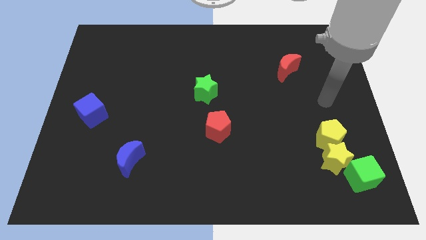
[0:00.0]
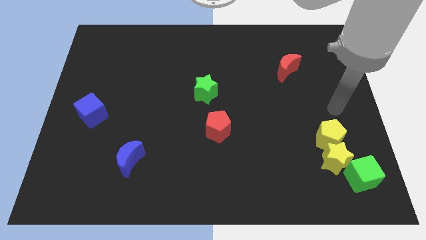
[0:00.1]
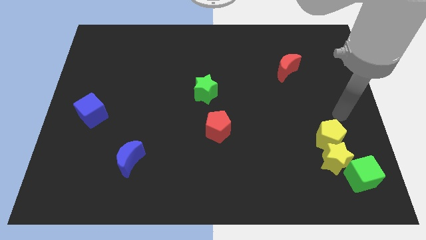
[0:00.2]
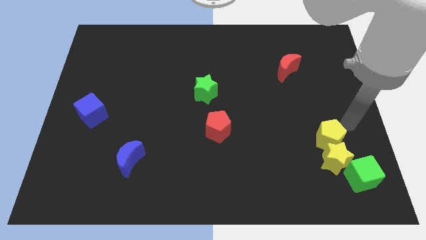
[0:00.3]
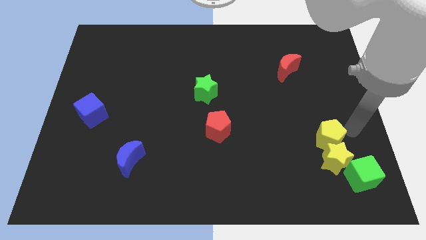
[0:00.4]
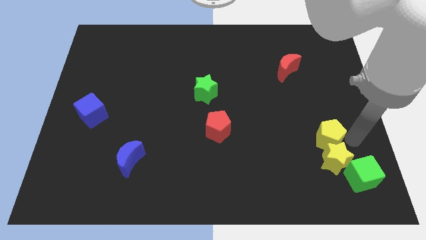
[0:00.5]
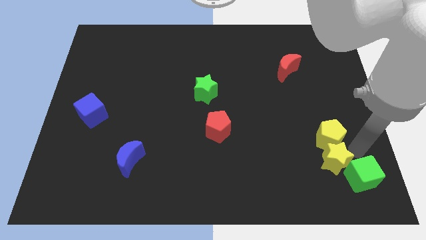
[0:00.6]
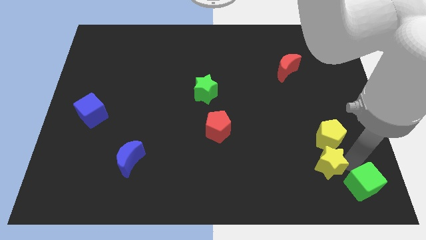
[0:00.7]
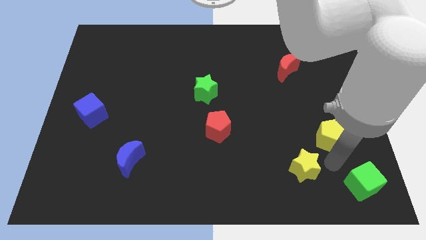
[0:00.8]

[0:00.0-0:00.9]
separate the yellow pentagon from the yellow star

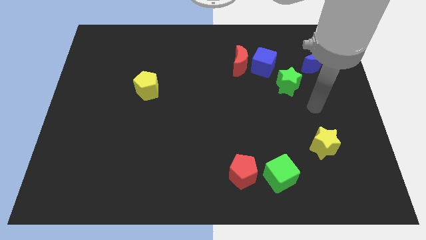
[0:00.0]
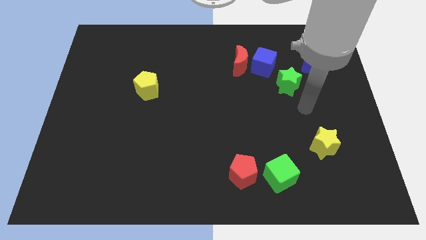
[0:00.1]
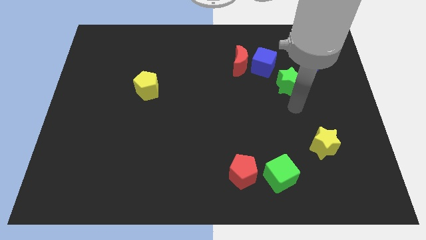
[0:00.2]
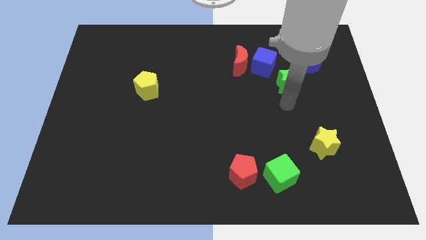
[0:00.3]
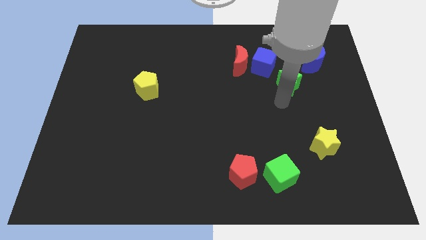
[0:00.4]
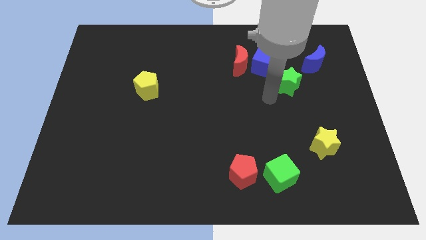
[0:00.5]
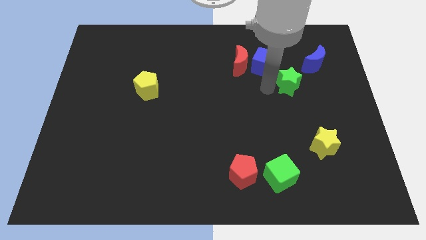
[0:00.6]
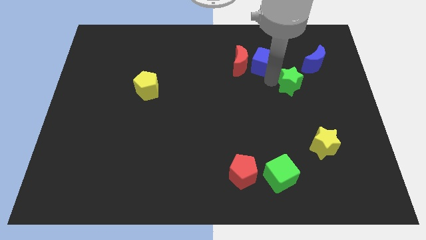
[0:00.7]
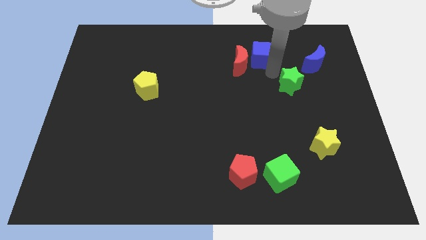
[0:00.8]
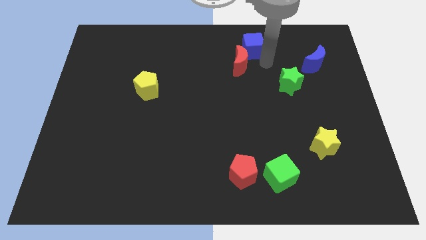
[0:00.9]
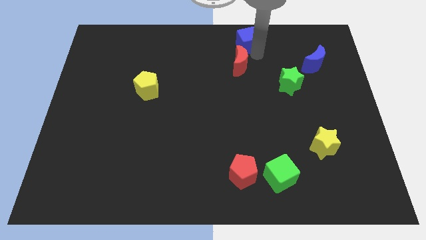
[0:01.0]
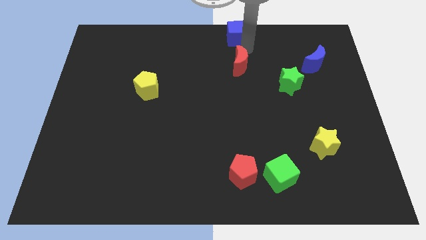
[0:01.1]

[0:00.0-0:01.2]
move the red moon away from the blue cube

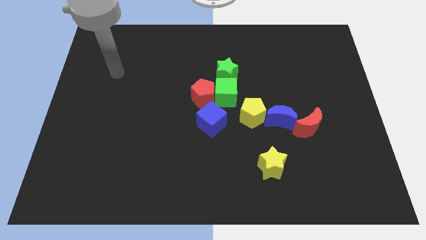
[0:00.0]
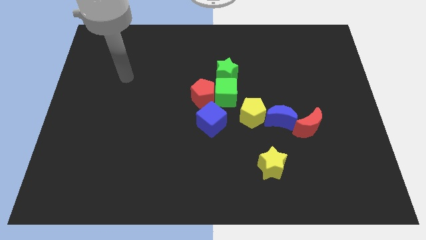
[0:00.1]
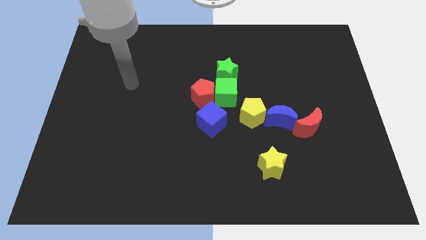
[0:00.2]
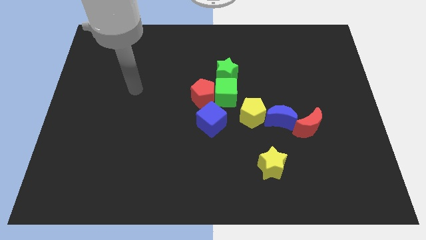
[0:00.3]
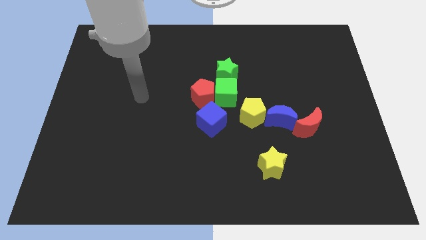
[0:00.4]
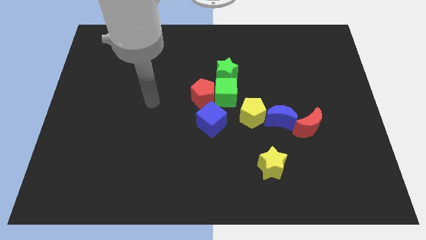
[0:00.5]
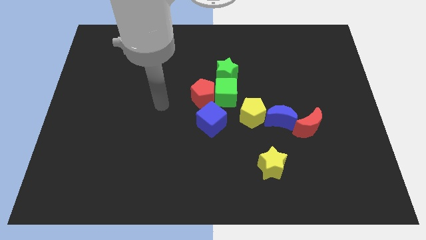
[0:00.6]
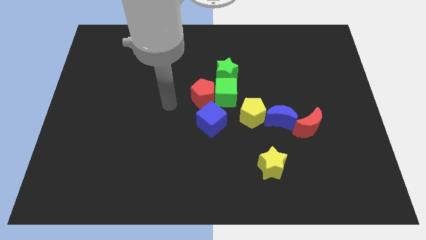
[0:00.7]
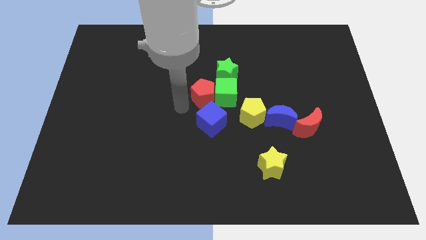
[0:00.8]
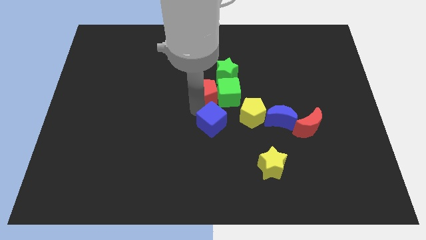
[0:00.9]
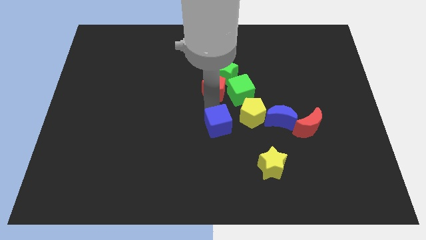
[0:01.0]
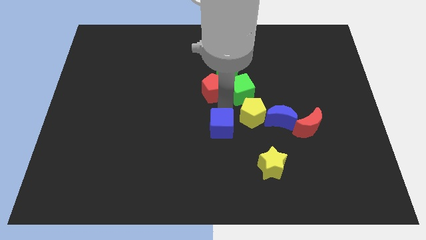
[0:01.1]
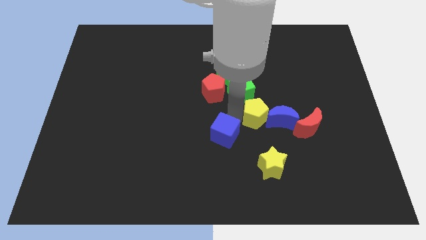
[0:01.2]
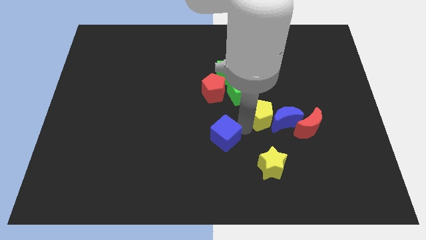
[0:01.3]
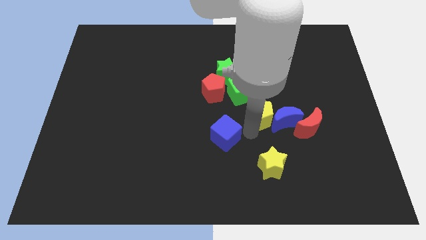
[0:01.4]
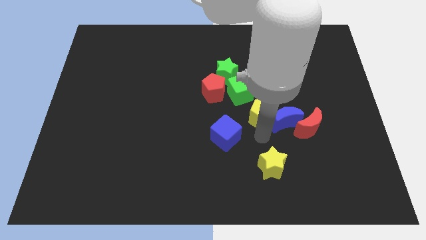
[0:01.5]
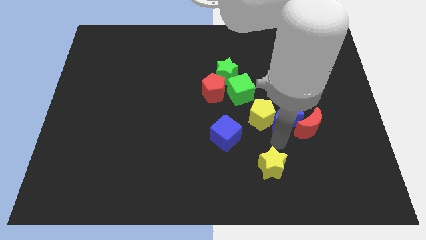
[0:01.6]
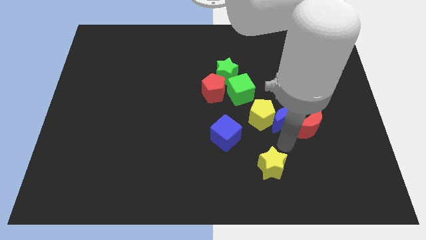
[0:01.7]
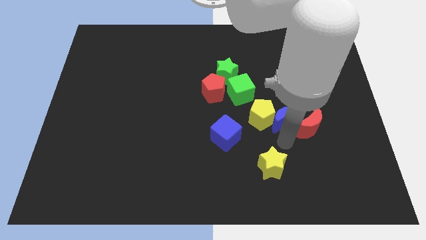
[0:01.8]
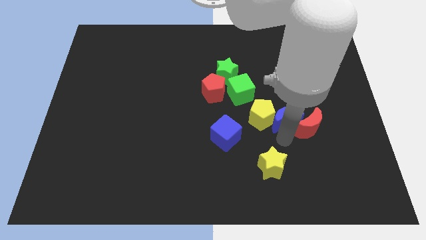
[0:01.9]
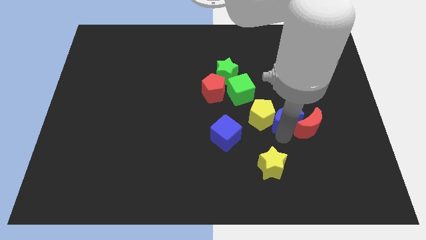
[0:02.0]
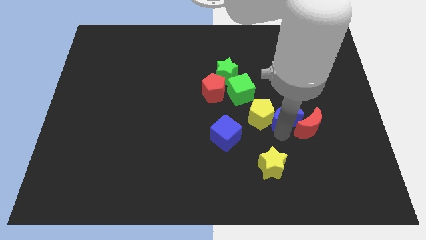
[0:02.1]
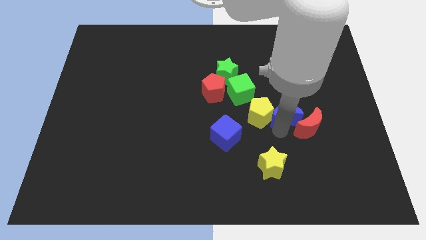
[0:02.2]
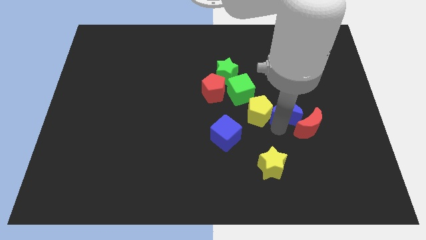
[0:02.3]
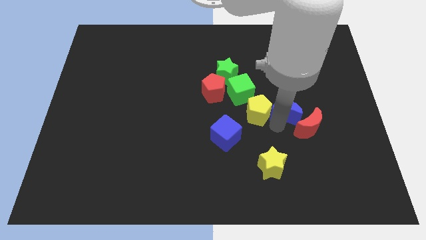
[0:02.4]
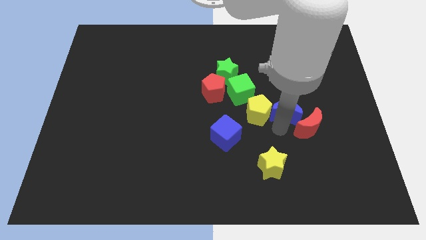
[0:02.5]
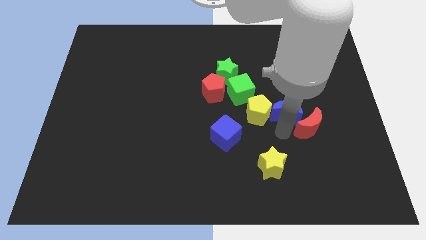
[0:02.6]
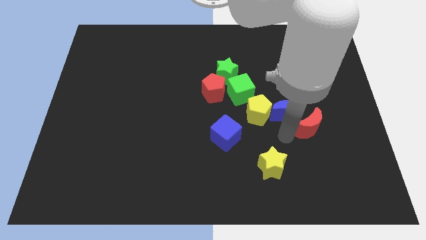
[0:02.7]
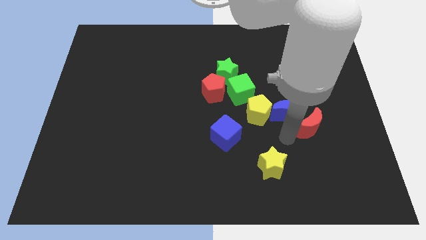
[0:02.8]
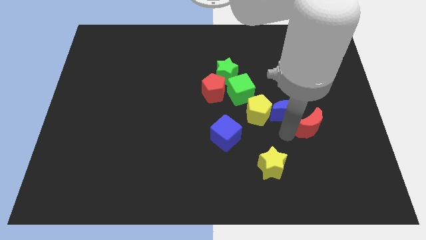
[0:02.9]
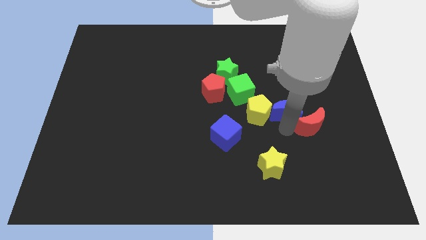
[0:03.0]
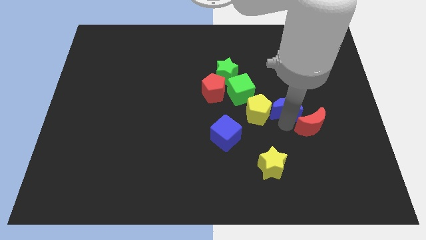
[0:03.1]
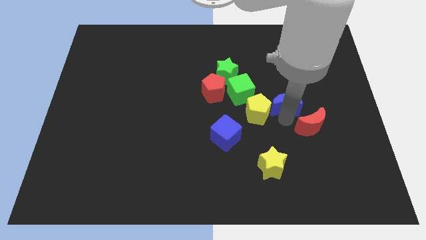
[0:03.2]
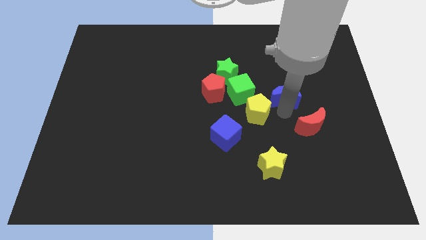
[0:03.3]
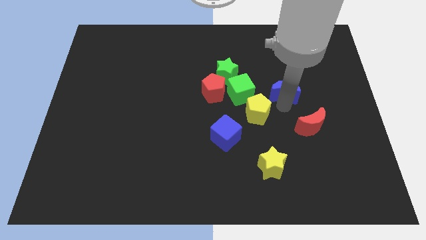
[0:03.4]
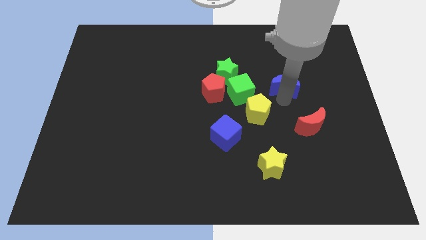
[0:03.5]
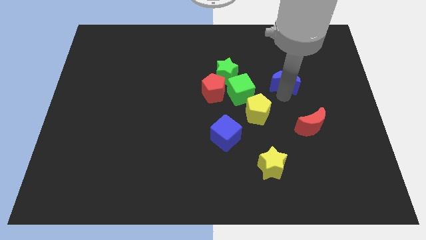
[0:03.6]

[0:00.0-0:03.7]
pull the blue moon apart from the yellow pentagon and red moon

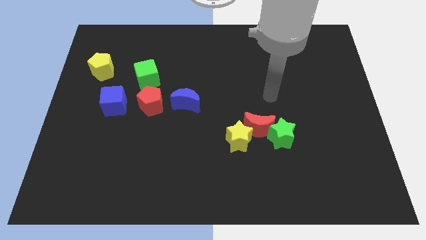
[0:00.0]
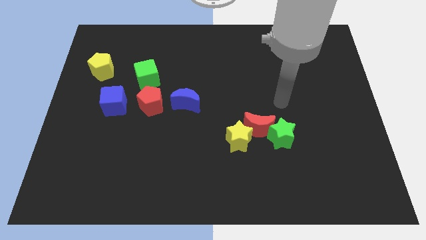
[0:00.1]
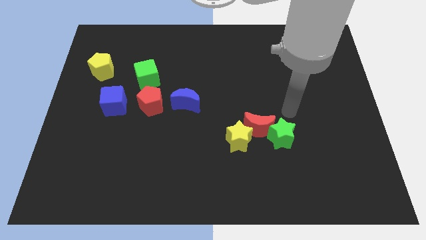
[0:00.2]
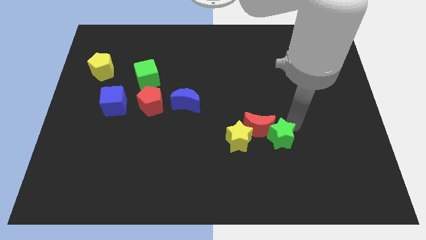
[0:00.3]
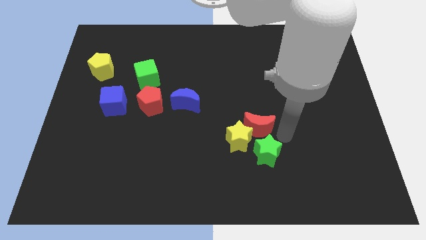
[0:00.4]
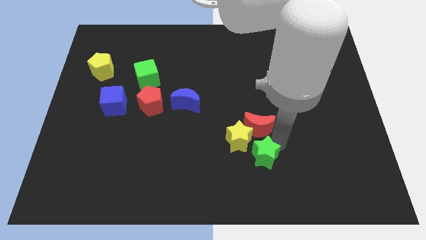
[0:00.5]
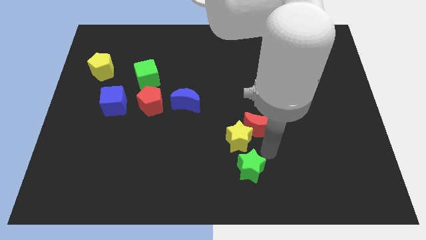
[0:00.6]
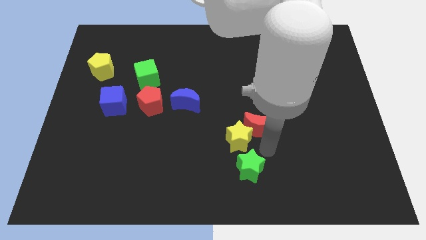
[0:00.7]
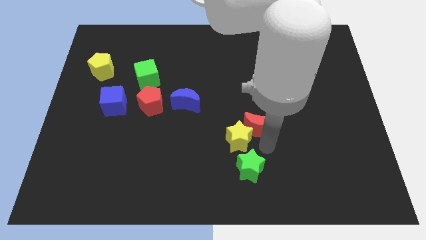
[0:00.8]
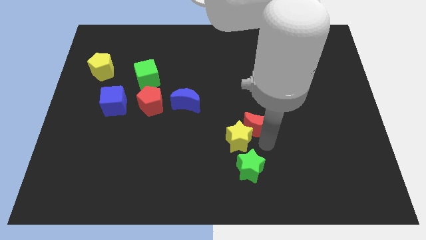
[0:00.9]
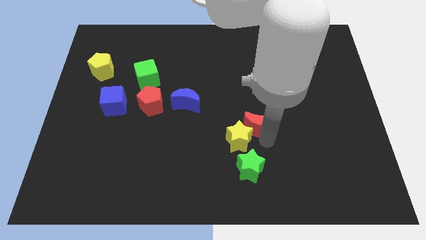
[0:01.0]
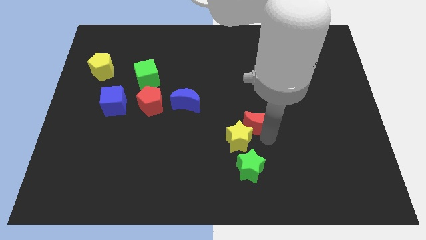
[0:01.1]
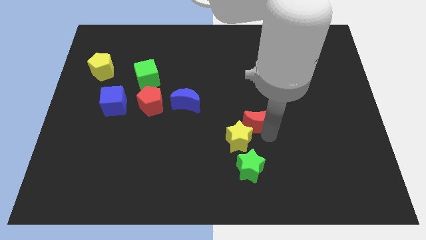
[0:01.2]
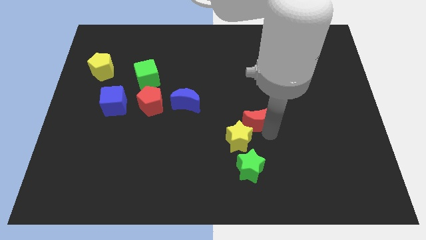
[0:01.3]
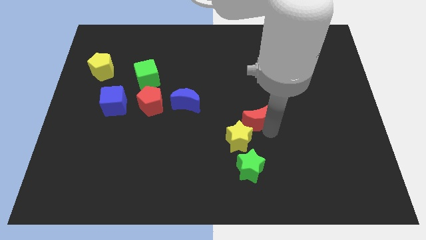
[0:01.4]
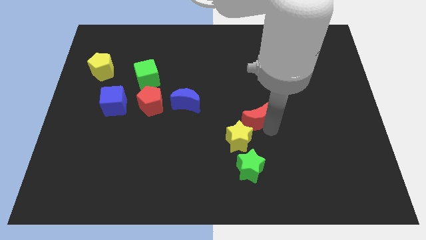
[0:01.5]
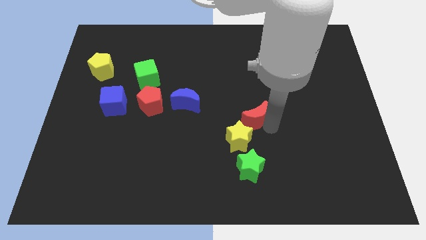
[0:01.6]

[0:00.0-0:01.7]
move the red moon away from the green star and yellow star

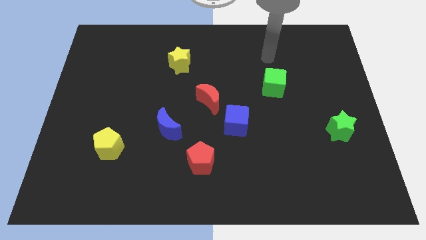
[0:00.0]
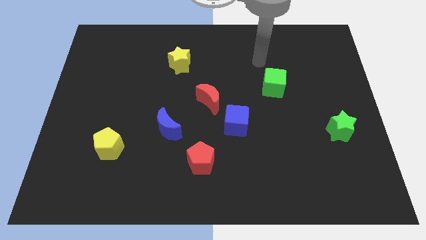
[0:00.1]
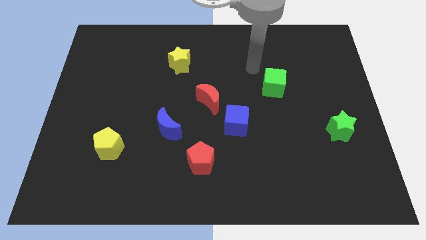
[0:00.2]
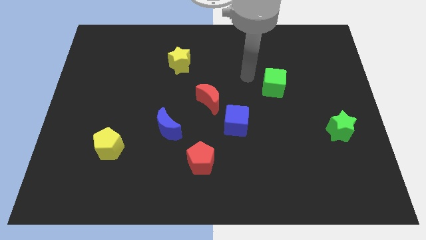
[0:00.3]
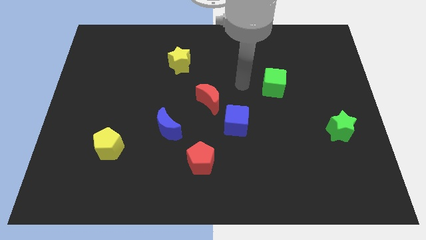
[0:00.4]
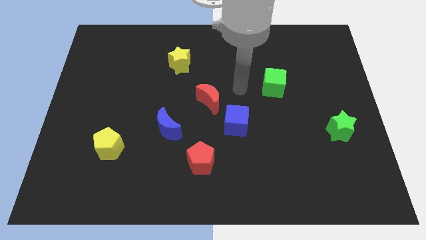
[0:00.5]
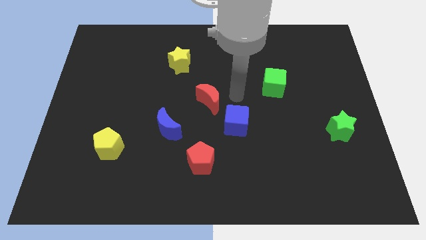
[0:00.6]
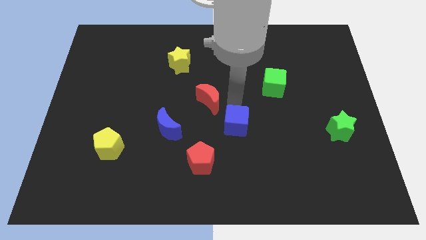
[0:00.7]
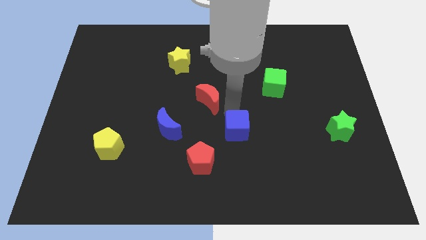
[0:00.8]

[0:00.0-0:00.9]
pull the red moon apart from the blue cube
